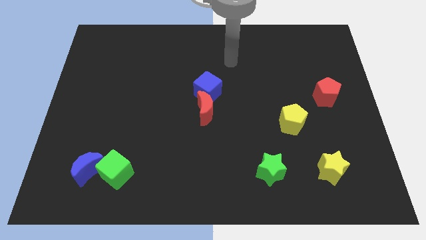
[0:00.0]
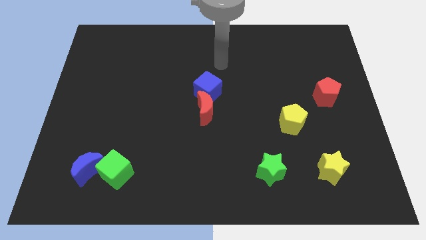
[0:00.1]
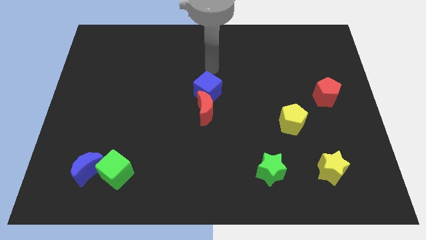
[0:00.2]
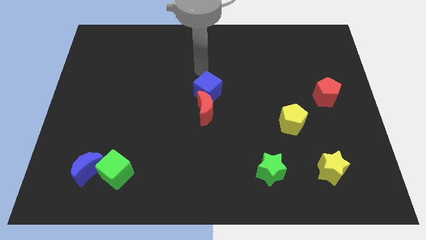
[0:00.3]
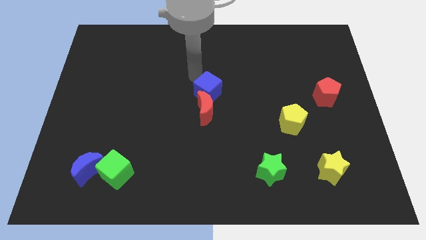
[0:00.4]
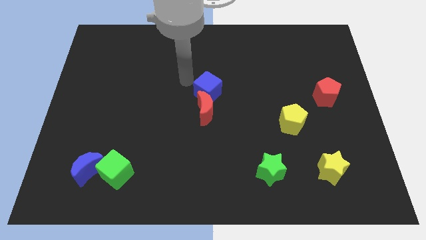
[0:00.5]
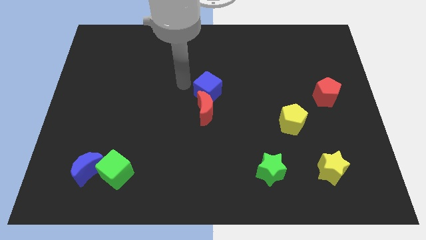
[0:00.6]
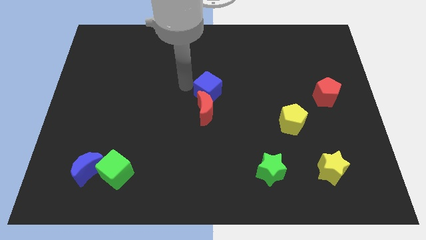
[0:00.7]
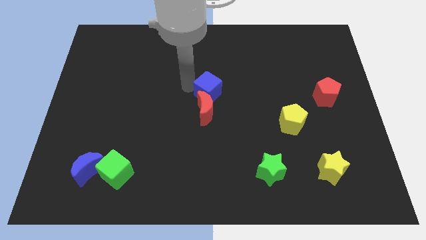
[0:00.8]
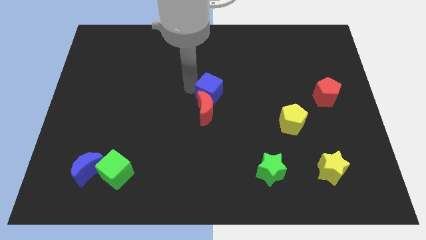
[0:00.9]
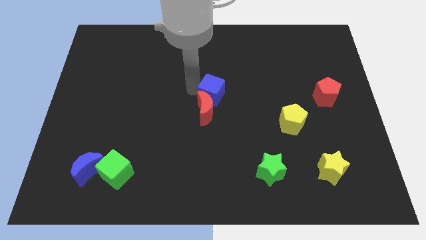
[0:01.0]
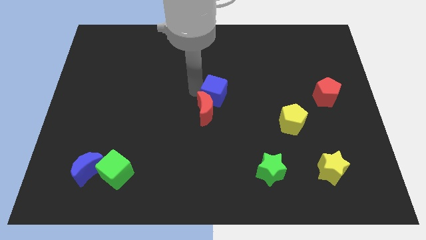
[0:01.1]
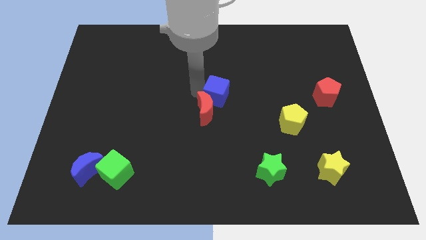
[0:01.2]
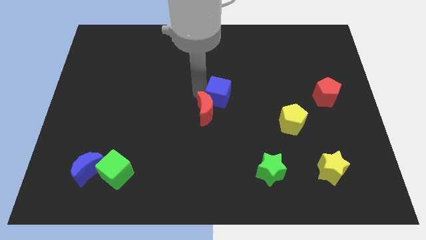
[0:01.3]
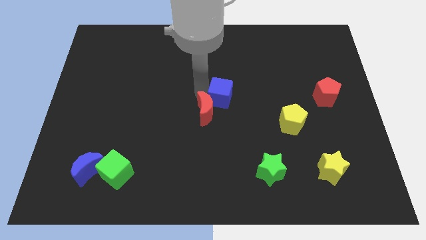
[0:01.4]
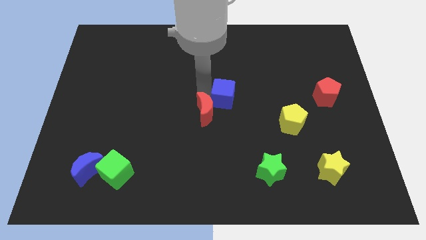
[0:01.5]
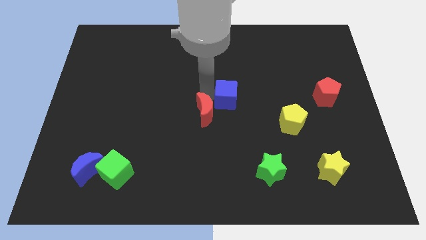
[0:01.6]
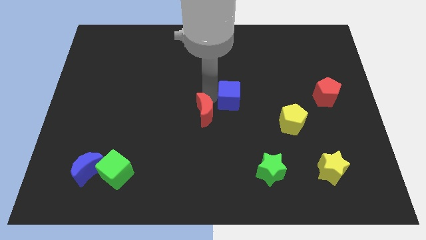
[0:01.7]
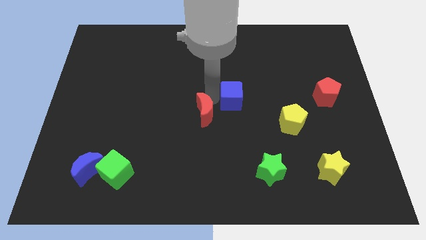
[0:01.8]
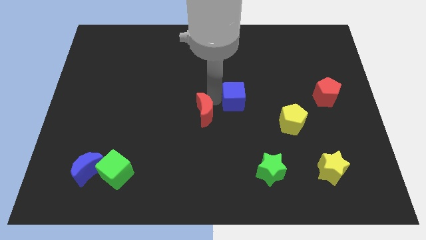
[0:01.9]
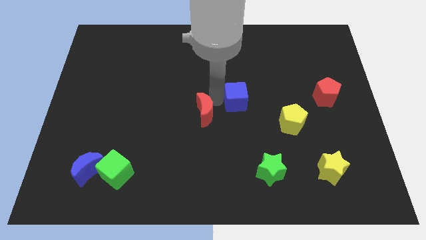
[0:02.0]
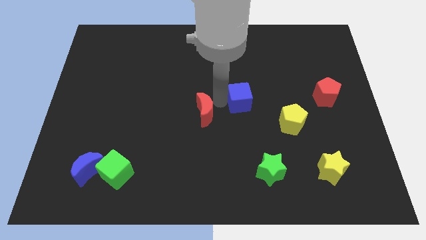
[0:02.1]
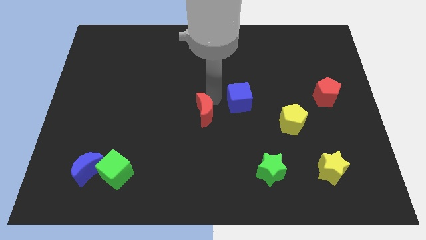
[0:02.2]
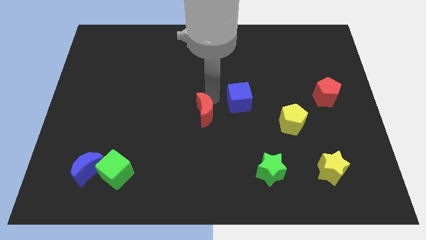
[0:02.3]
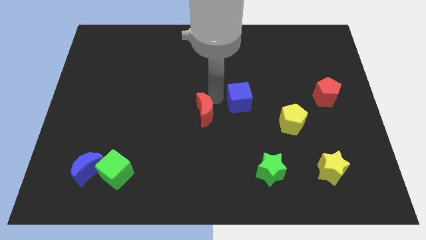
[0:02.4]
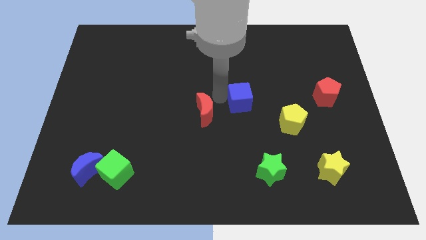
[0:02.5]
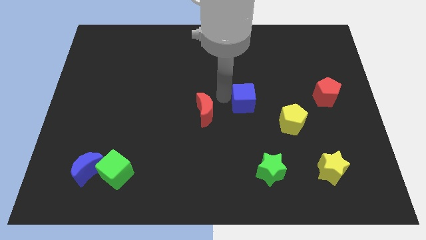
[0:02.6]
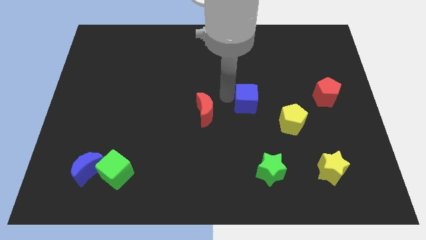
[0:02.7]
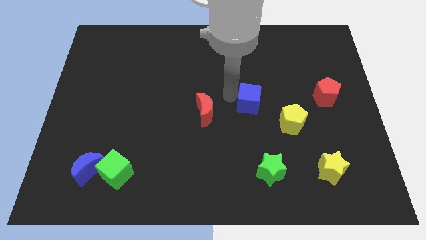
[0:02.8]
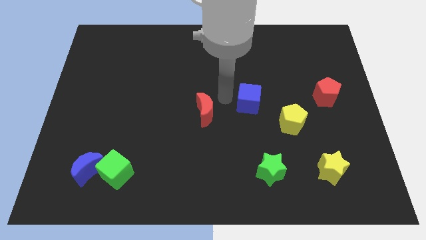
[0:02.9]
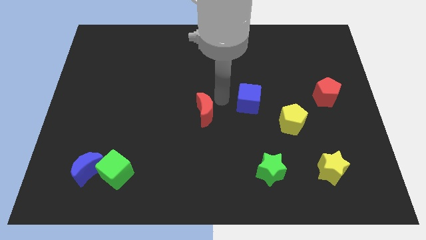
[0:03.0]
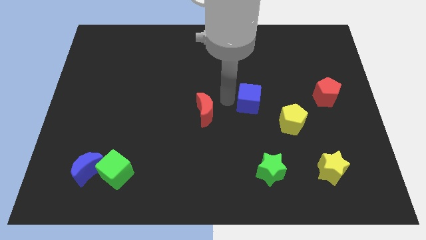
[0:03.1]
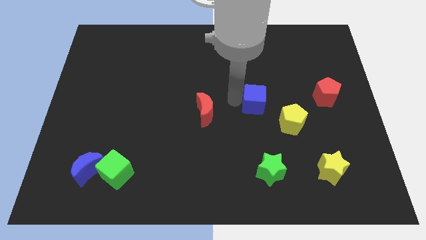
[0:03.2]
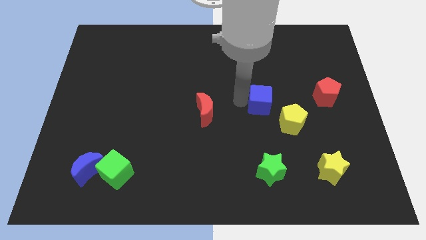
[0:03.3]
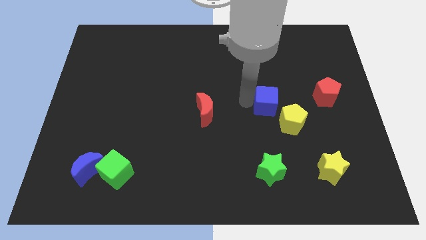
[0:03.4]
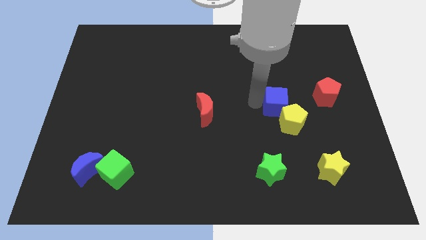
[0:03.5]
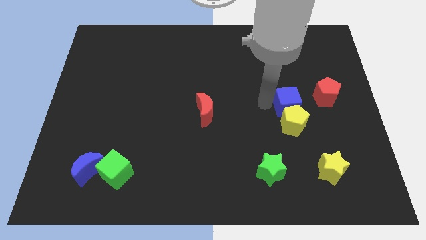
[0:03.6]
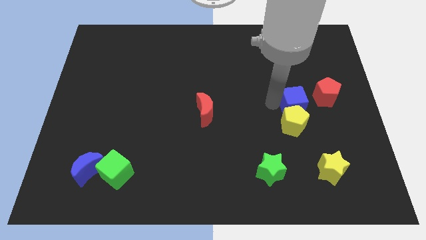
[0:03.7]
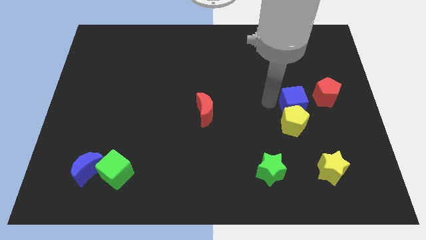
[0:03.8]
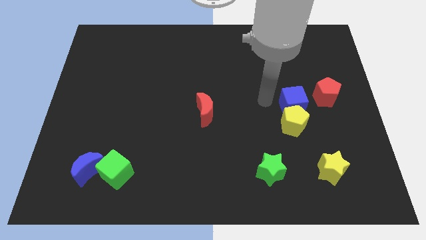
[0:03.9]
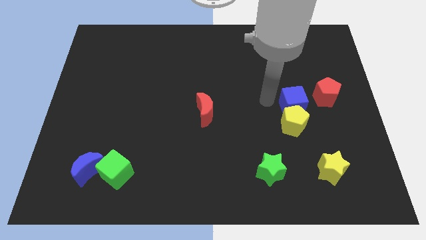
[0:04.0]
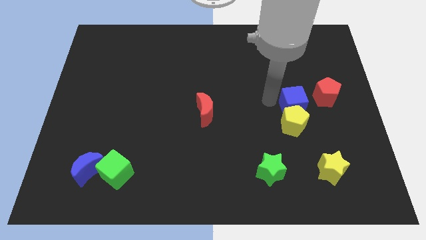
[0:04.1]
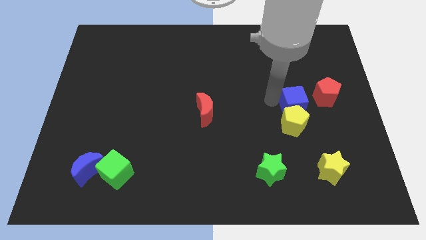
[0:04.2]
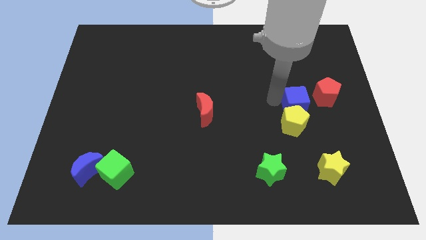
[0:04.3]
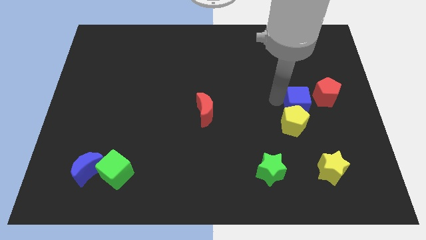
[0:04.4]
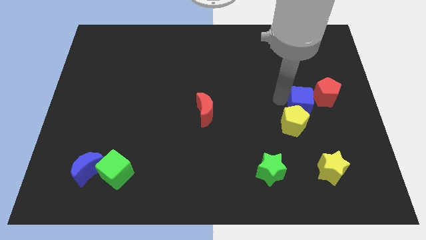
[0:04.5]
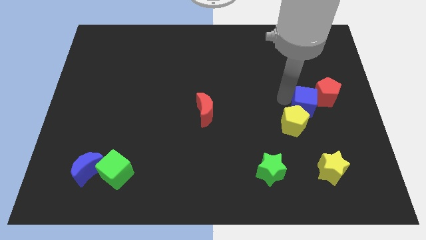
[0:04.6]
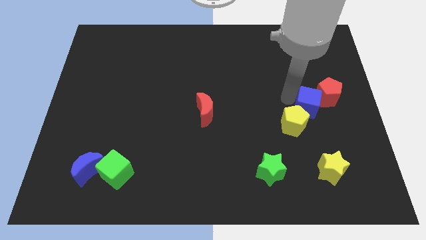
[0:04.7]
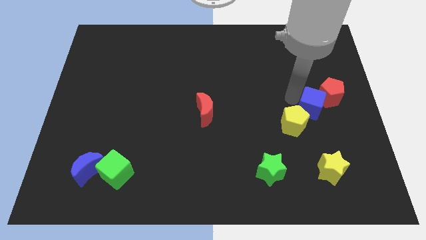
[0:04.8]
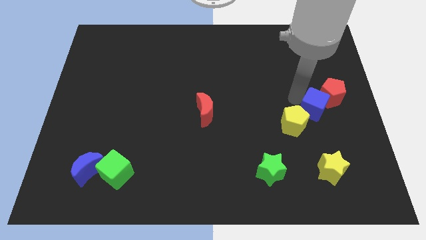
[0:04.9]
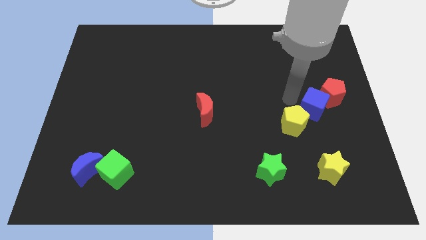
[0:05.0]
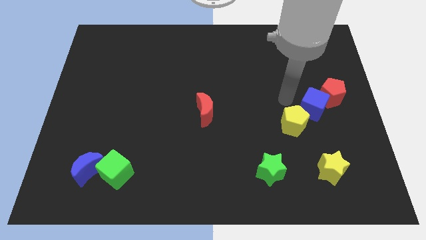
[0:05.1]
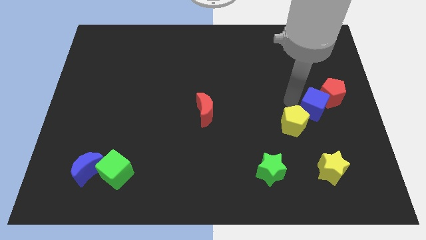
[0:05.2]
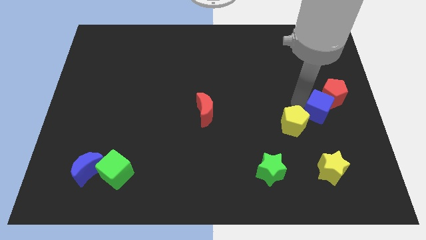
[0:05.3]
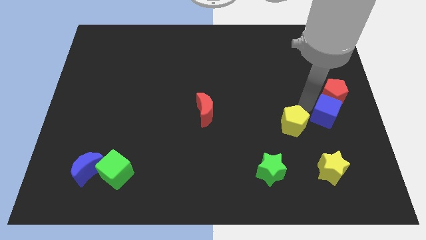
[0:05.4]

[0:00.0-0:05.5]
slide the blue cube to the right side

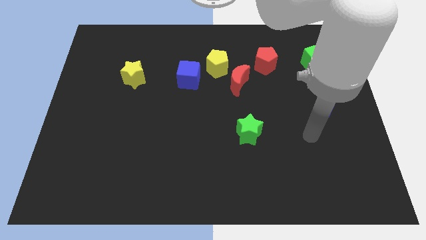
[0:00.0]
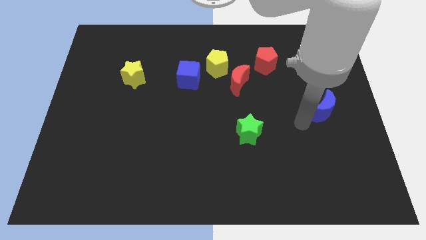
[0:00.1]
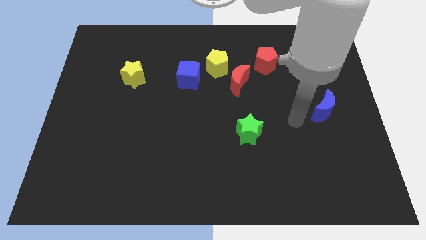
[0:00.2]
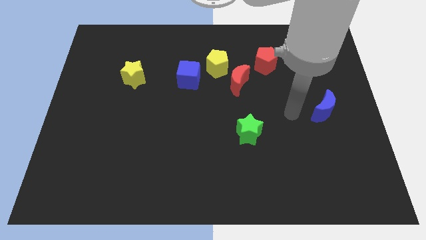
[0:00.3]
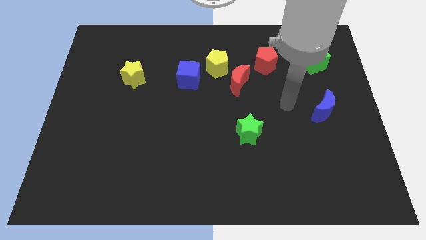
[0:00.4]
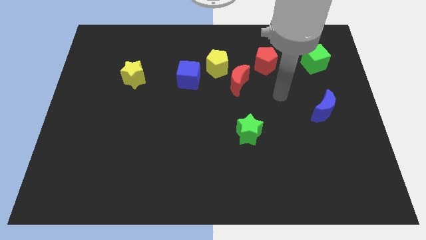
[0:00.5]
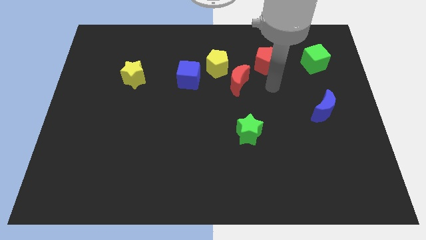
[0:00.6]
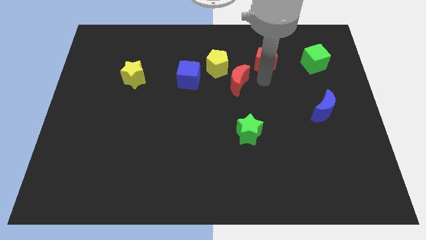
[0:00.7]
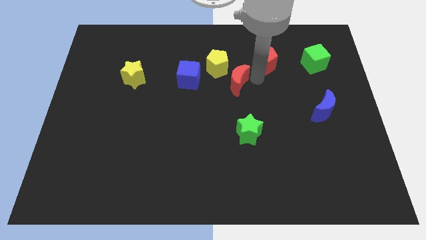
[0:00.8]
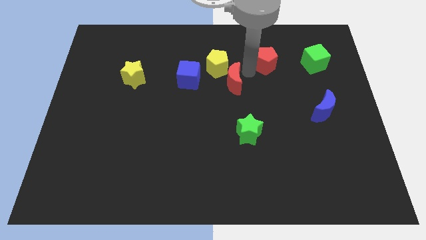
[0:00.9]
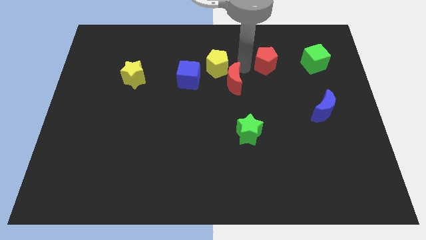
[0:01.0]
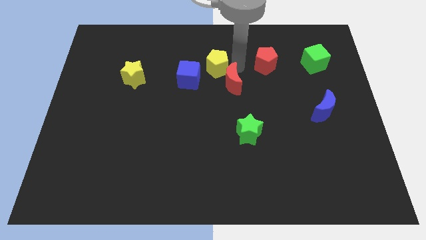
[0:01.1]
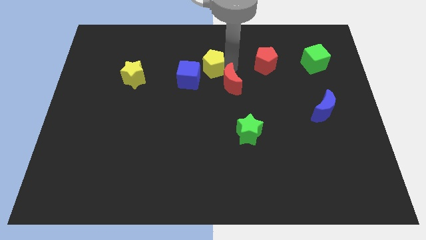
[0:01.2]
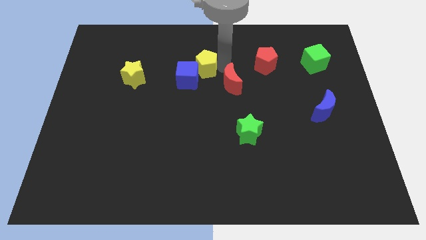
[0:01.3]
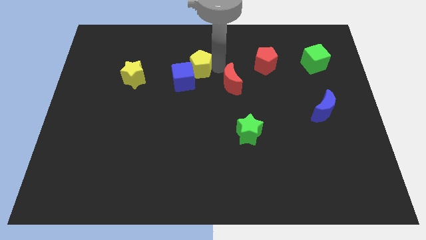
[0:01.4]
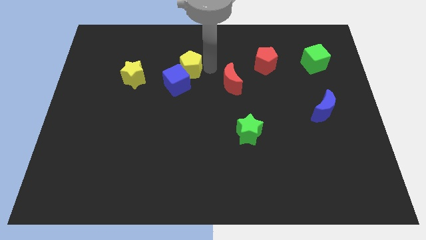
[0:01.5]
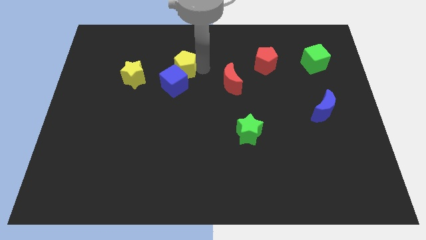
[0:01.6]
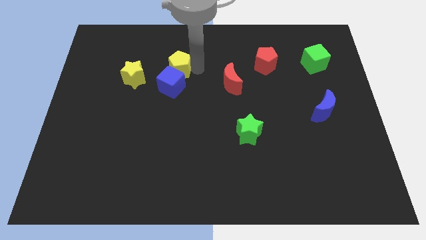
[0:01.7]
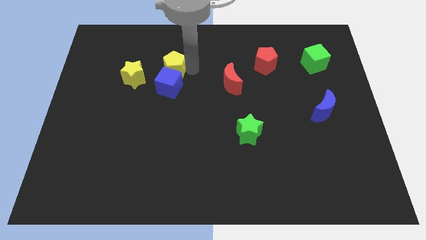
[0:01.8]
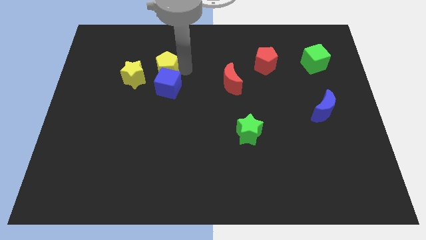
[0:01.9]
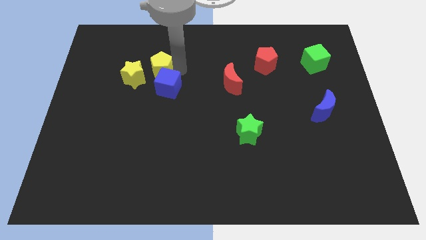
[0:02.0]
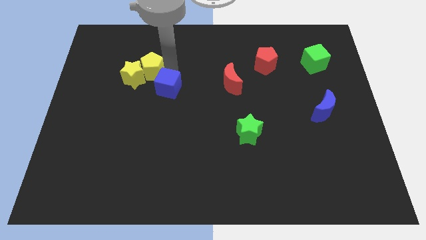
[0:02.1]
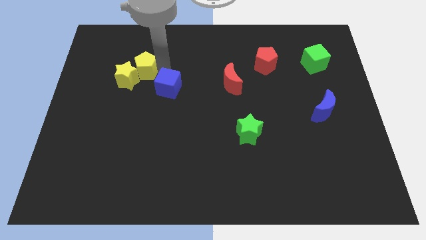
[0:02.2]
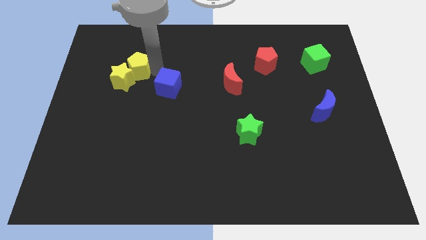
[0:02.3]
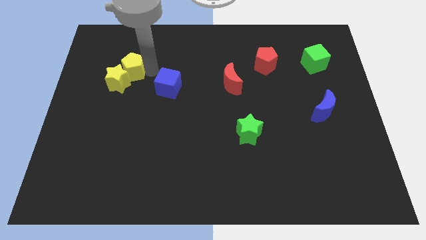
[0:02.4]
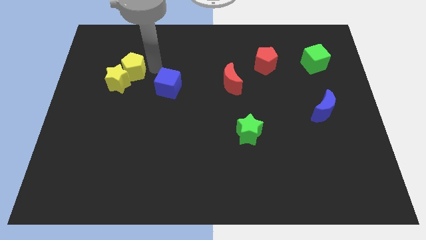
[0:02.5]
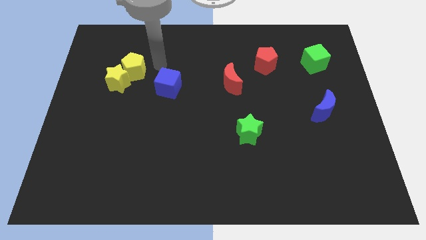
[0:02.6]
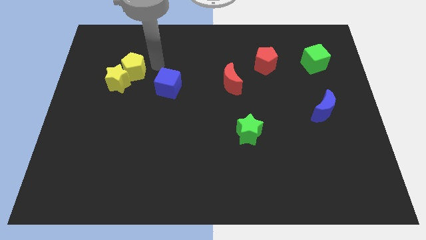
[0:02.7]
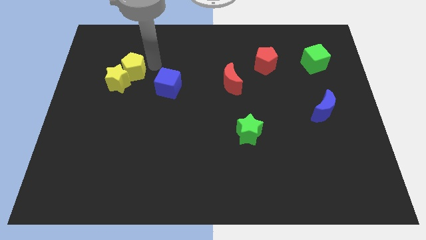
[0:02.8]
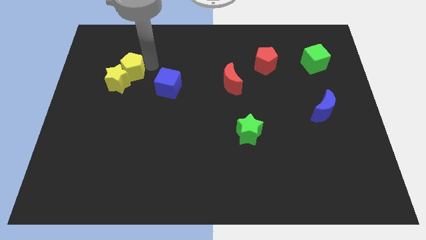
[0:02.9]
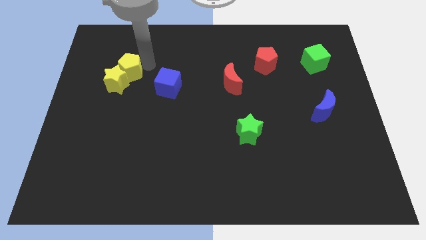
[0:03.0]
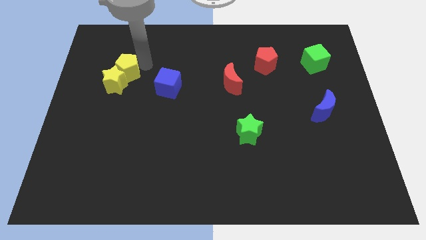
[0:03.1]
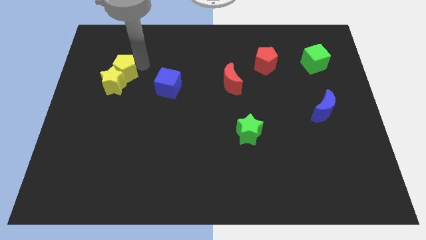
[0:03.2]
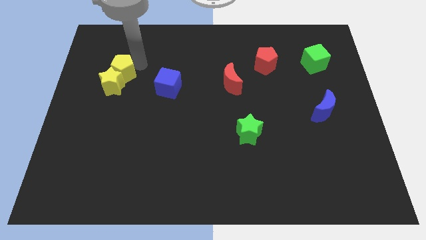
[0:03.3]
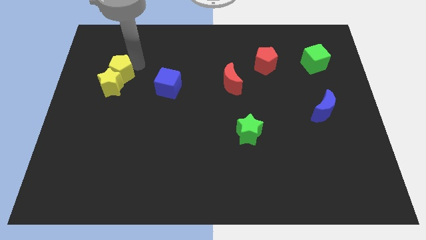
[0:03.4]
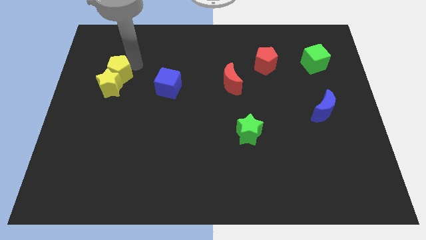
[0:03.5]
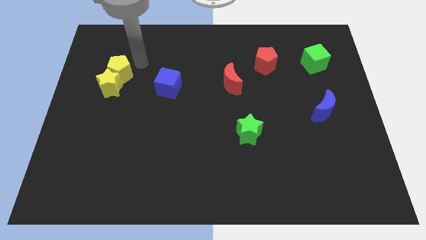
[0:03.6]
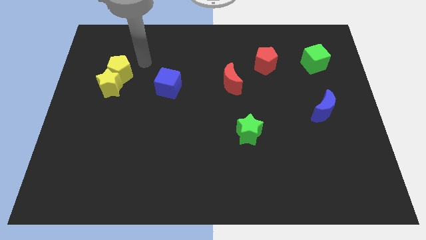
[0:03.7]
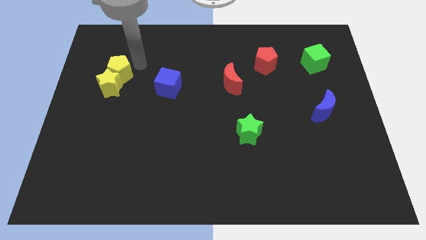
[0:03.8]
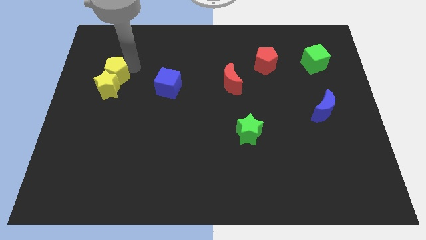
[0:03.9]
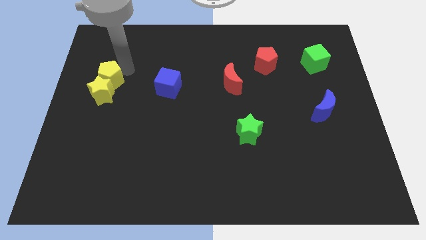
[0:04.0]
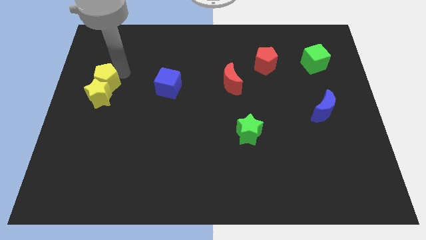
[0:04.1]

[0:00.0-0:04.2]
put the yellow pentagon to the left side
